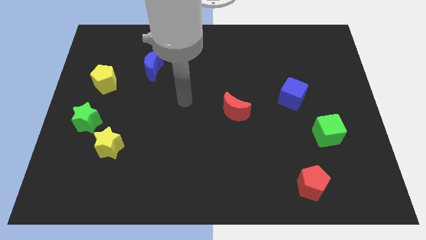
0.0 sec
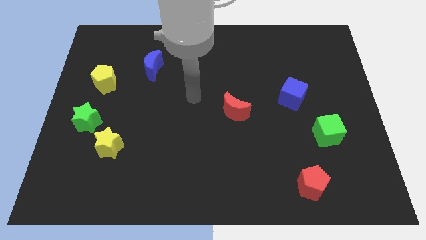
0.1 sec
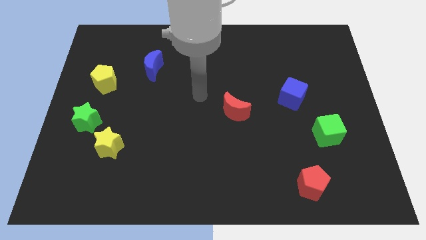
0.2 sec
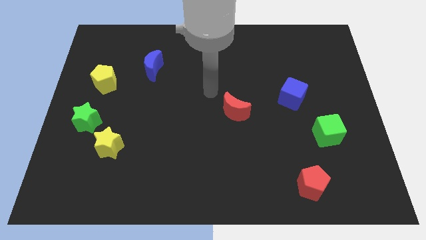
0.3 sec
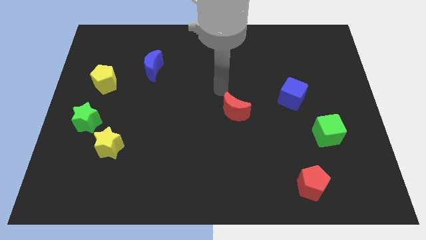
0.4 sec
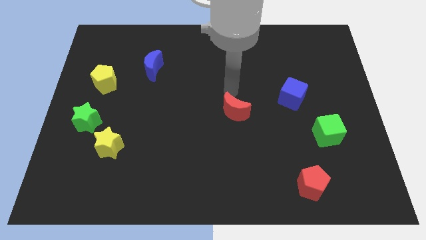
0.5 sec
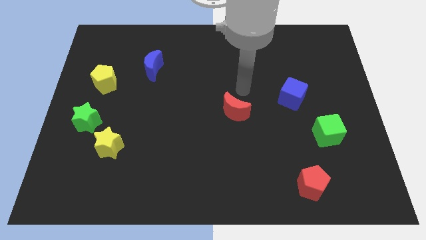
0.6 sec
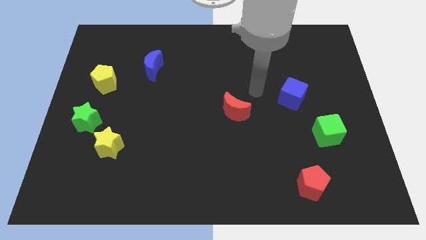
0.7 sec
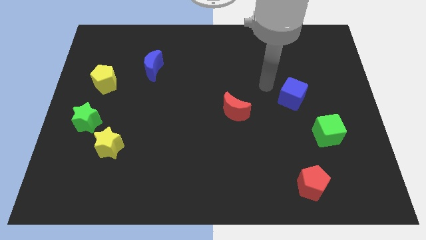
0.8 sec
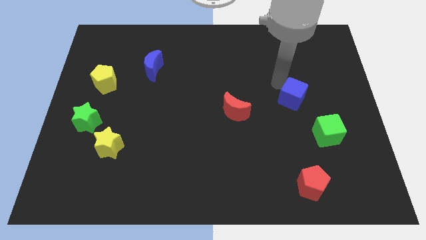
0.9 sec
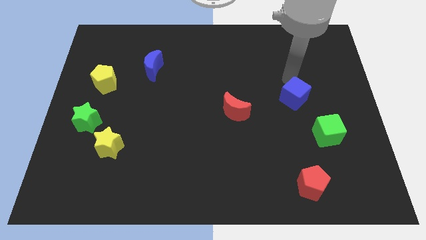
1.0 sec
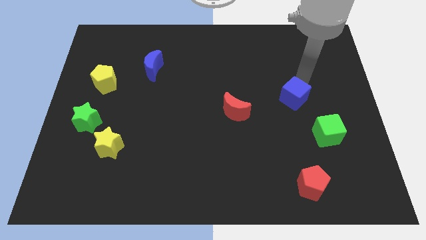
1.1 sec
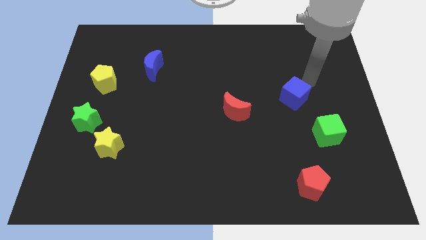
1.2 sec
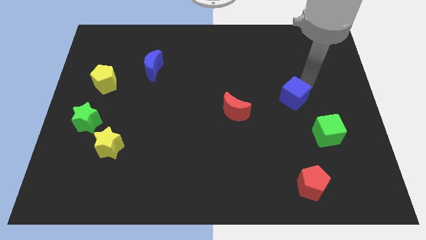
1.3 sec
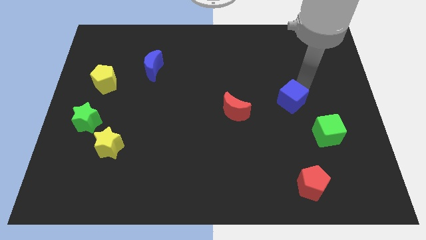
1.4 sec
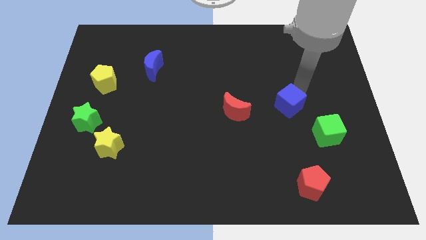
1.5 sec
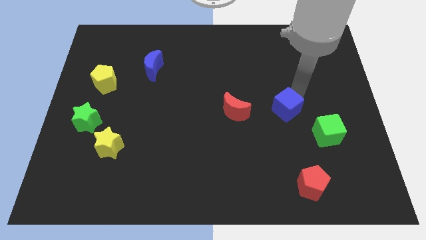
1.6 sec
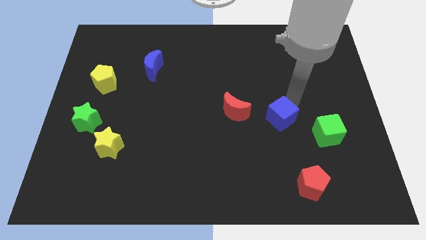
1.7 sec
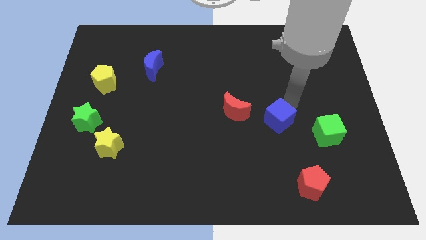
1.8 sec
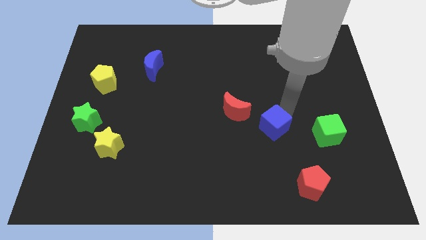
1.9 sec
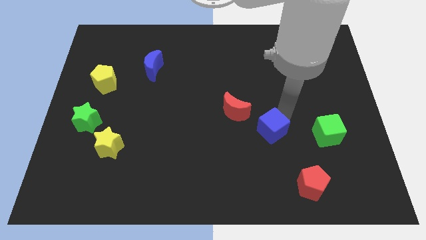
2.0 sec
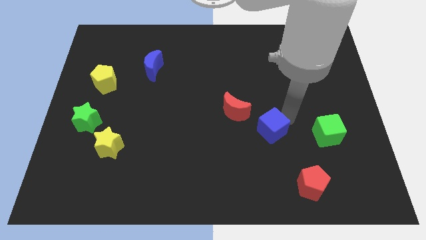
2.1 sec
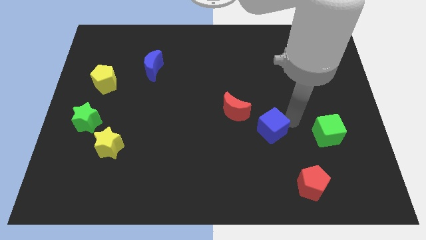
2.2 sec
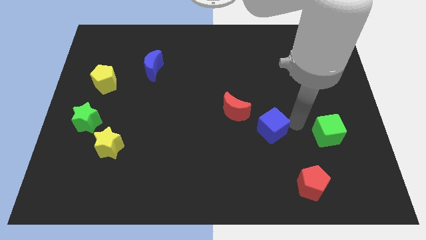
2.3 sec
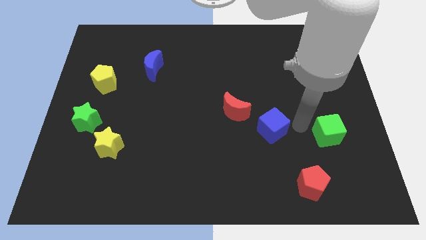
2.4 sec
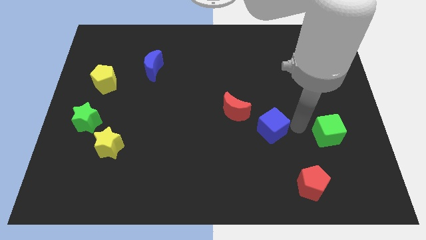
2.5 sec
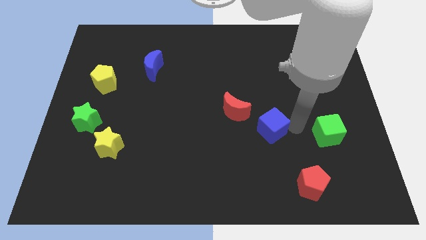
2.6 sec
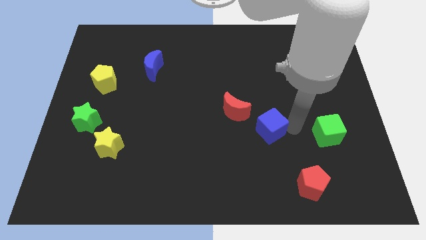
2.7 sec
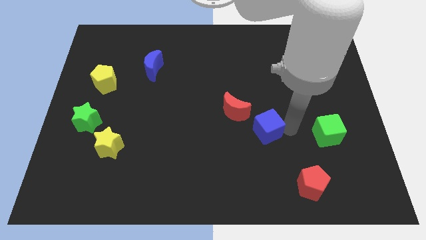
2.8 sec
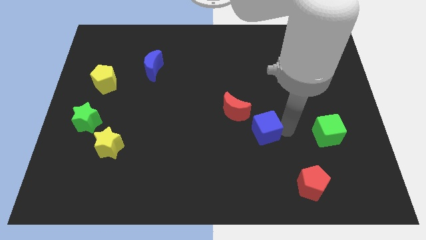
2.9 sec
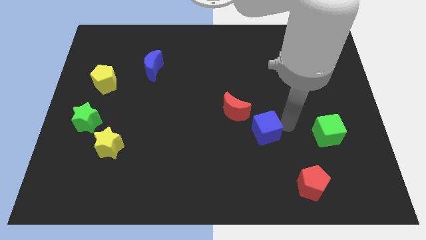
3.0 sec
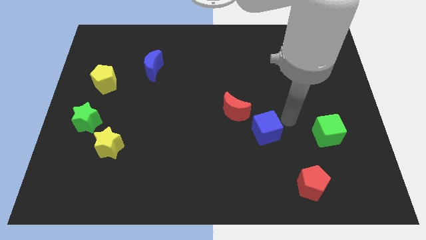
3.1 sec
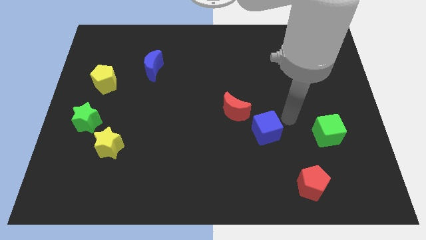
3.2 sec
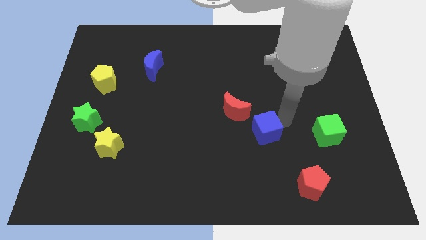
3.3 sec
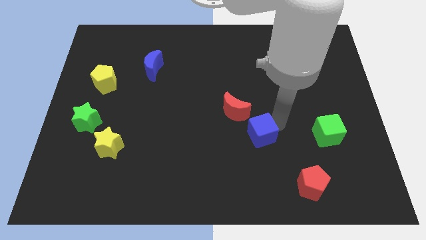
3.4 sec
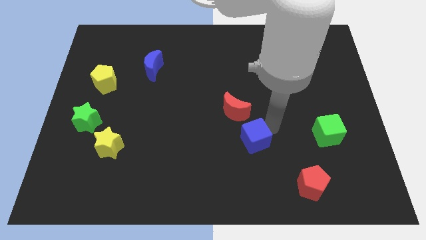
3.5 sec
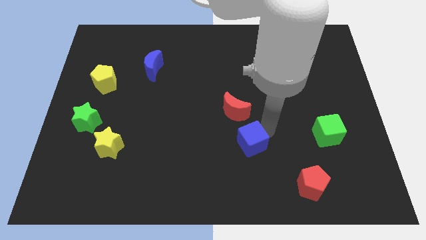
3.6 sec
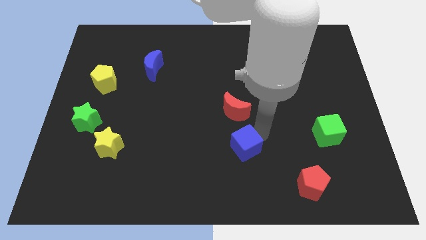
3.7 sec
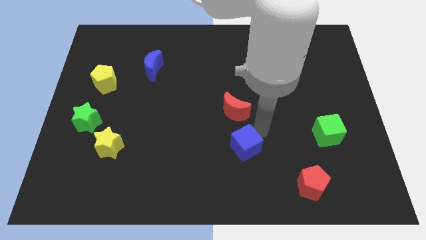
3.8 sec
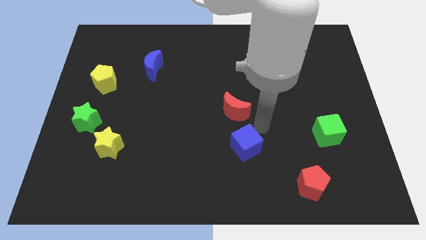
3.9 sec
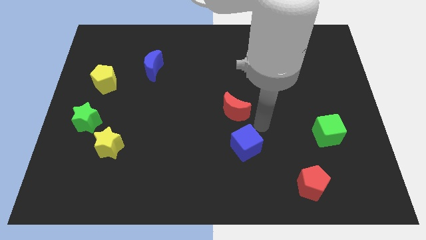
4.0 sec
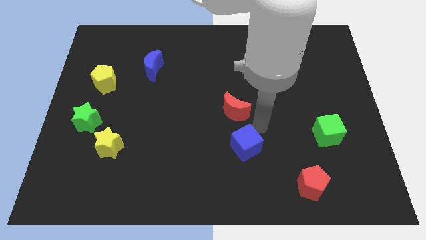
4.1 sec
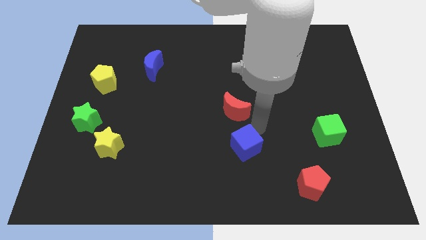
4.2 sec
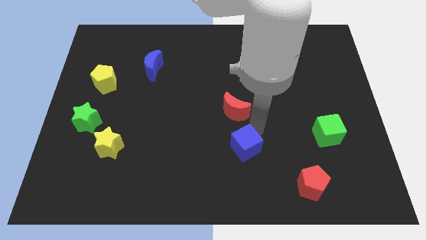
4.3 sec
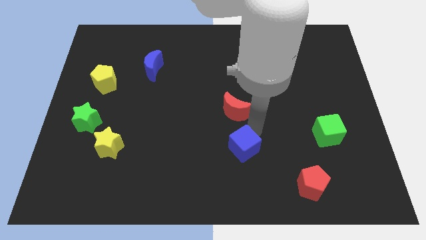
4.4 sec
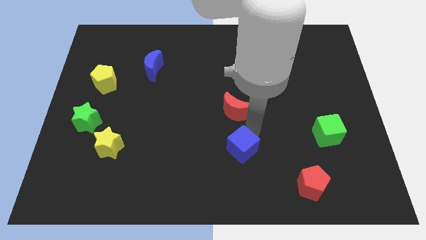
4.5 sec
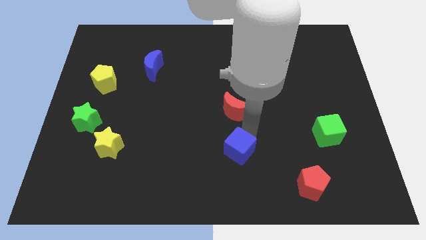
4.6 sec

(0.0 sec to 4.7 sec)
move the blue cube downwards and left diagonally

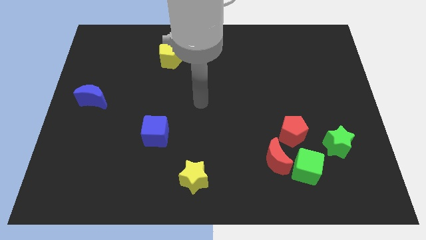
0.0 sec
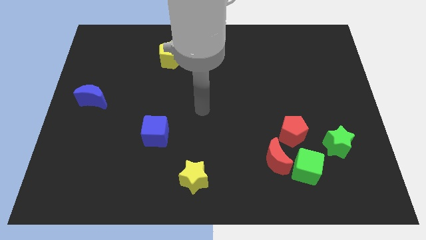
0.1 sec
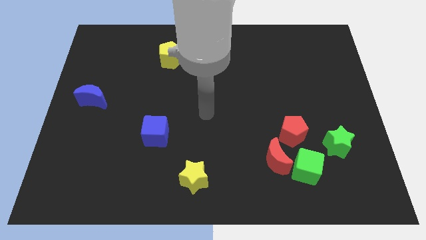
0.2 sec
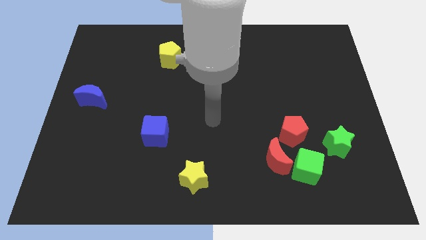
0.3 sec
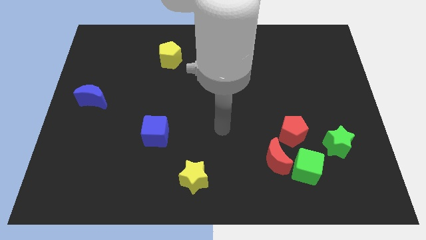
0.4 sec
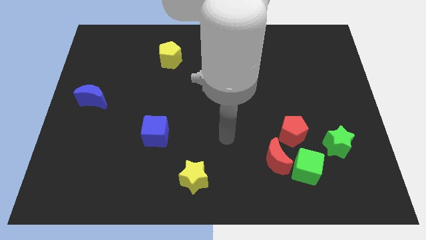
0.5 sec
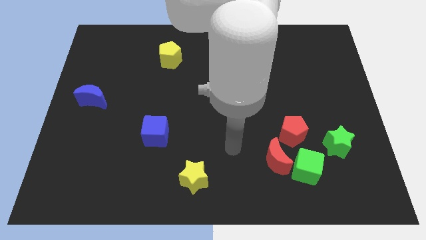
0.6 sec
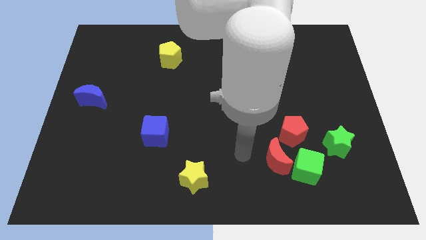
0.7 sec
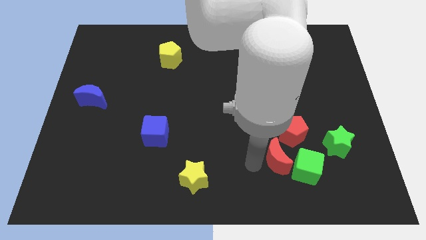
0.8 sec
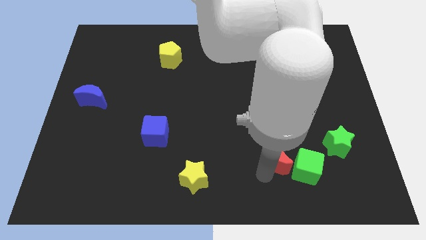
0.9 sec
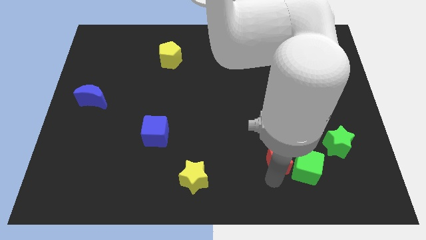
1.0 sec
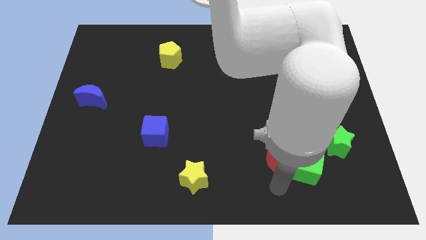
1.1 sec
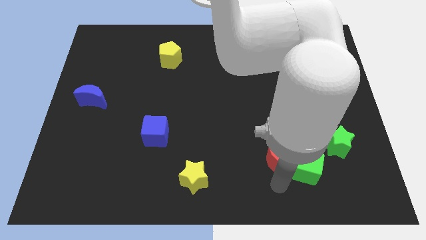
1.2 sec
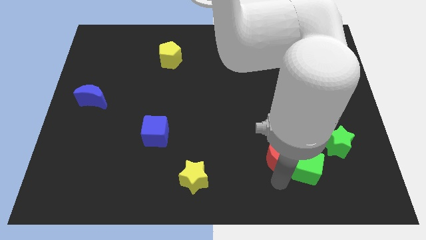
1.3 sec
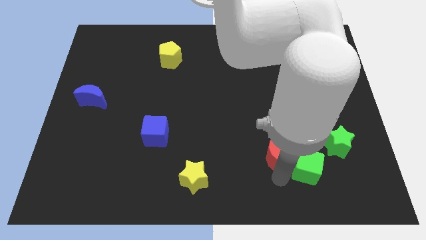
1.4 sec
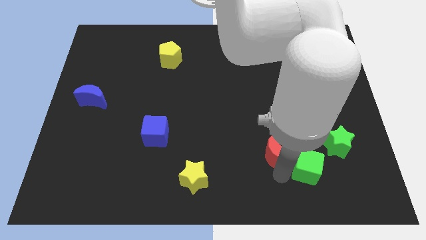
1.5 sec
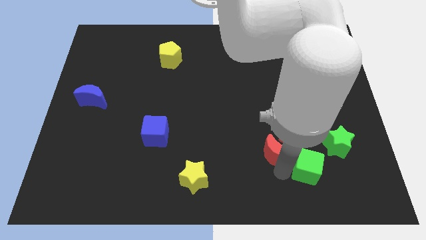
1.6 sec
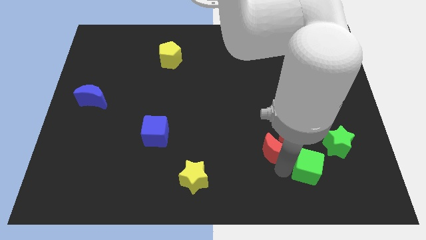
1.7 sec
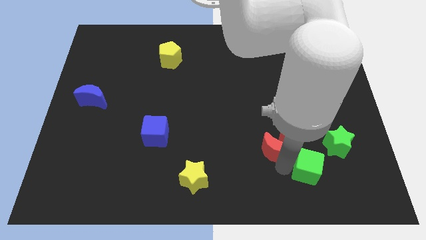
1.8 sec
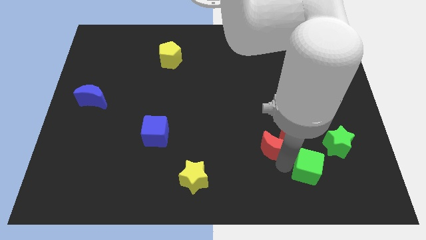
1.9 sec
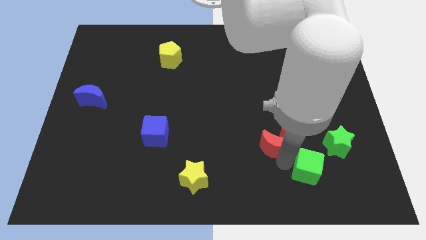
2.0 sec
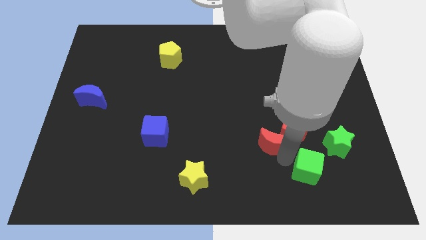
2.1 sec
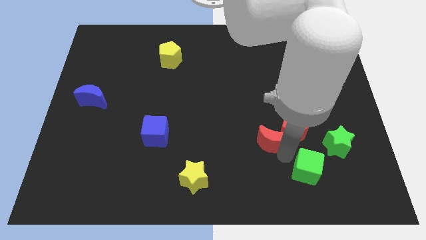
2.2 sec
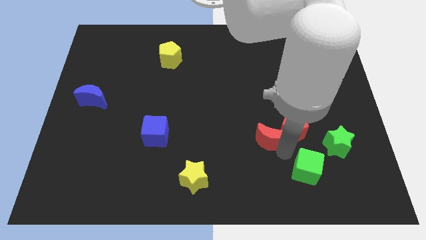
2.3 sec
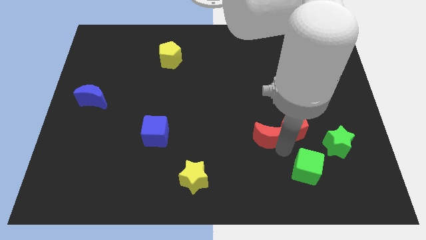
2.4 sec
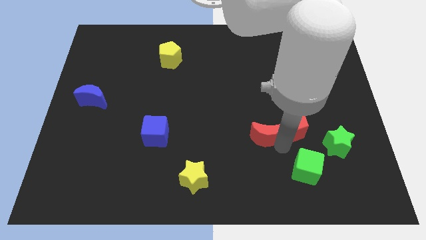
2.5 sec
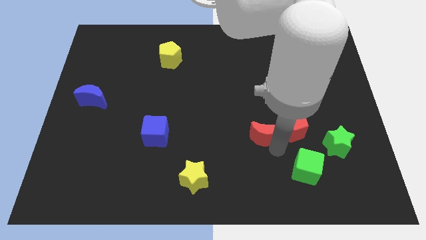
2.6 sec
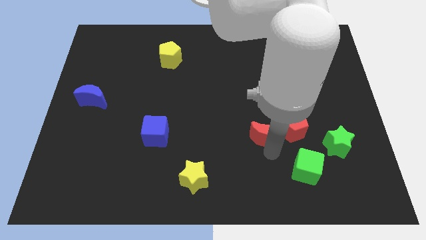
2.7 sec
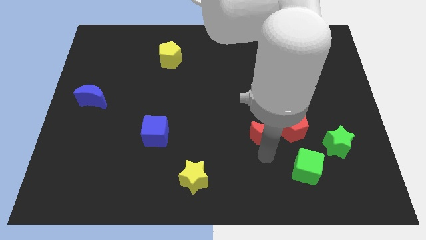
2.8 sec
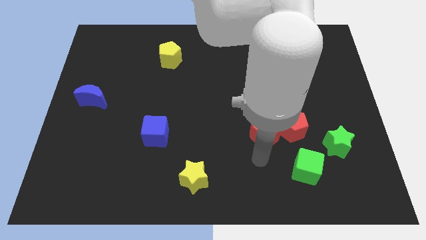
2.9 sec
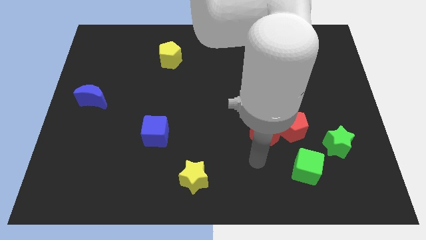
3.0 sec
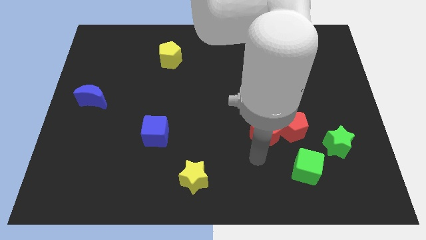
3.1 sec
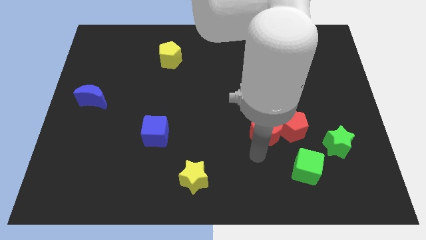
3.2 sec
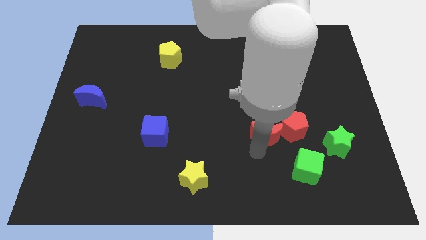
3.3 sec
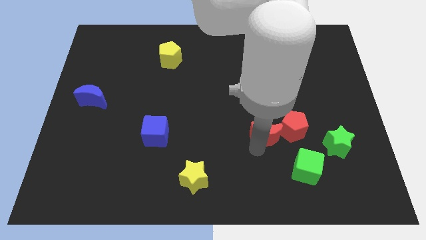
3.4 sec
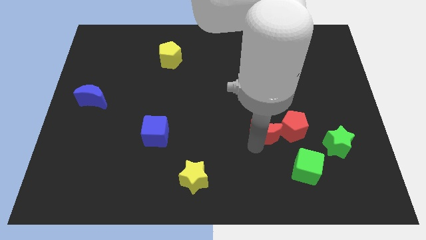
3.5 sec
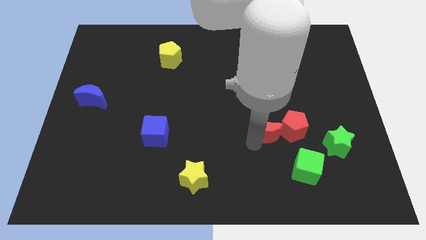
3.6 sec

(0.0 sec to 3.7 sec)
slightly push the red moon upwards
